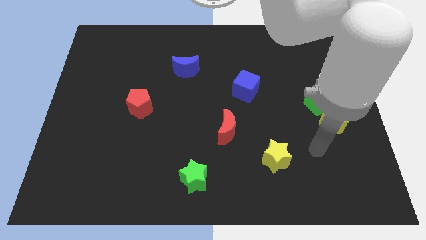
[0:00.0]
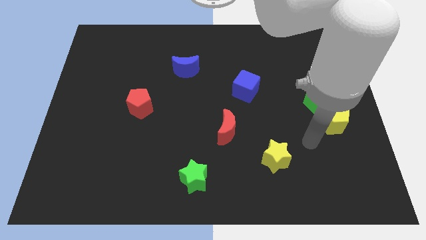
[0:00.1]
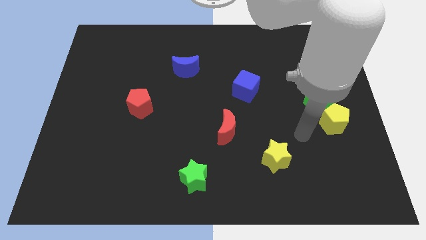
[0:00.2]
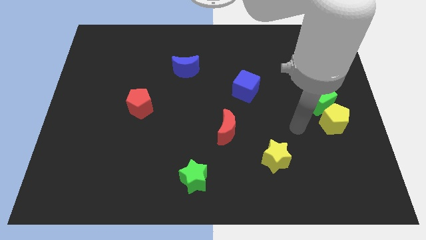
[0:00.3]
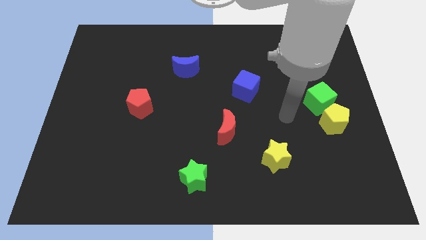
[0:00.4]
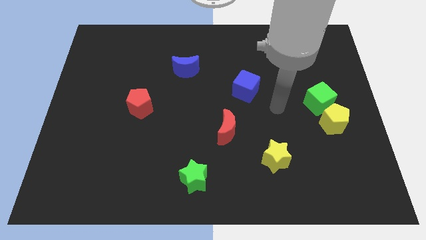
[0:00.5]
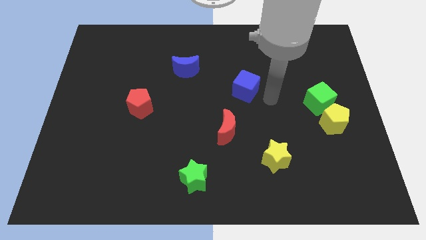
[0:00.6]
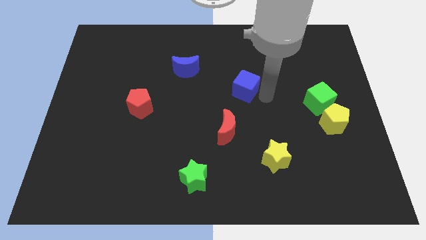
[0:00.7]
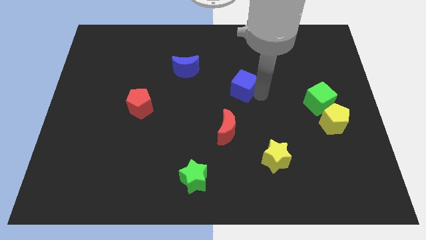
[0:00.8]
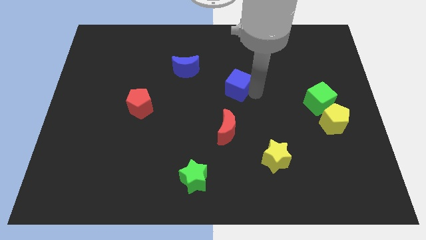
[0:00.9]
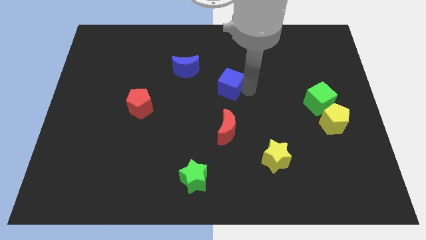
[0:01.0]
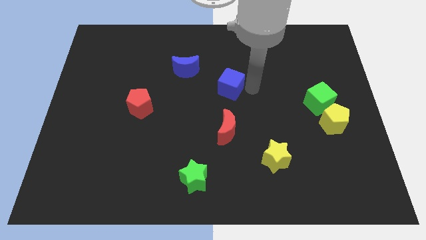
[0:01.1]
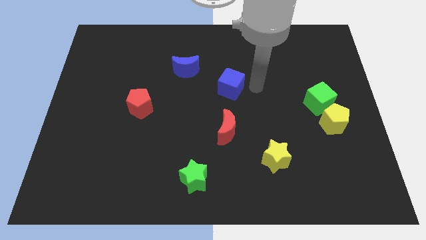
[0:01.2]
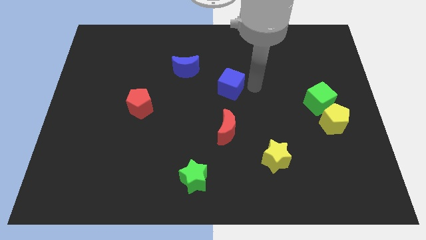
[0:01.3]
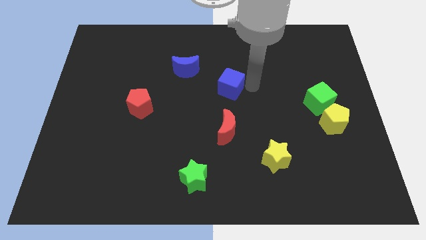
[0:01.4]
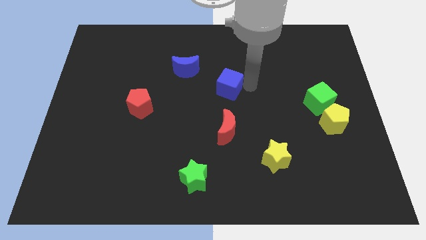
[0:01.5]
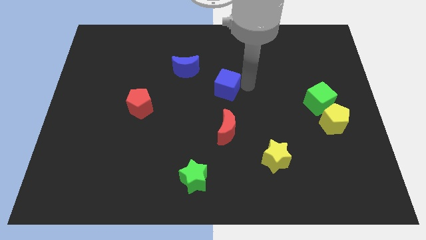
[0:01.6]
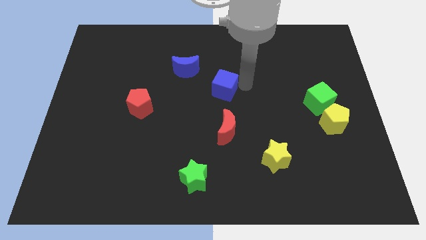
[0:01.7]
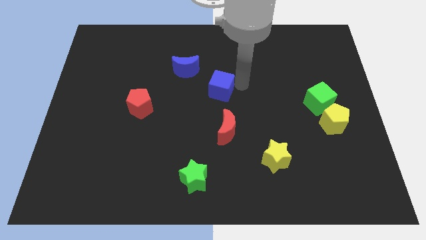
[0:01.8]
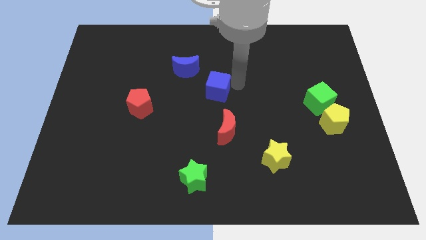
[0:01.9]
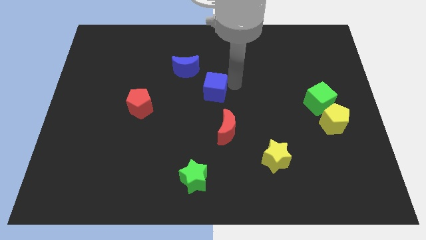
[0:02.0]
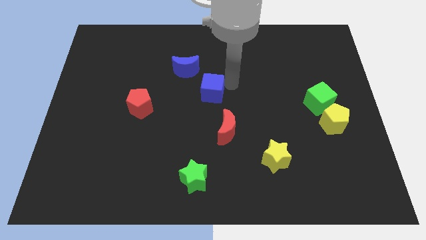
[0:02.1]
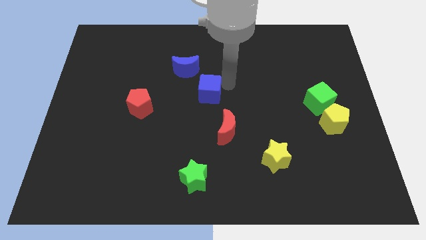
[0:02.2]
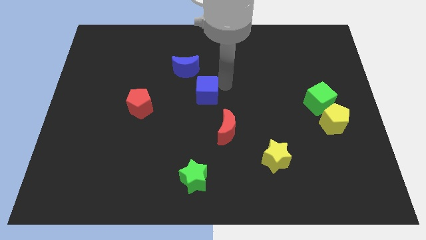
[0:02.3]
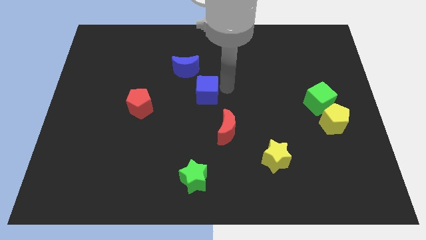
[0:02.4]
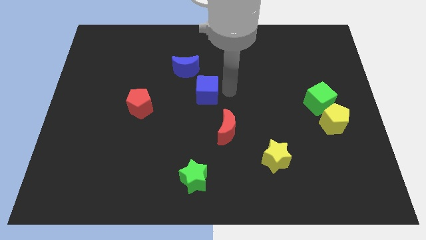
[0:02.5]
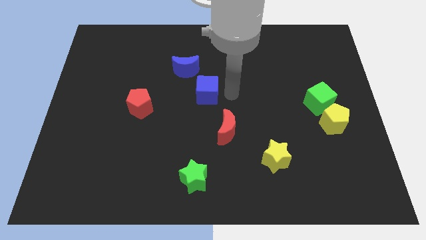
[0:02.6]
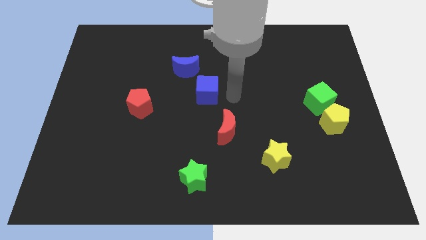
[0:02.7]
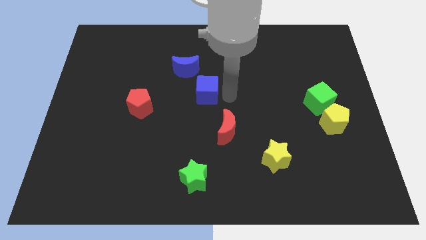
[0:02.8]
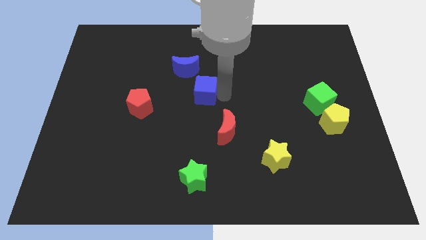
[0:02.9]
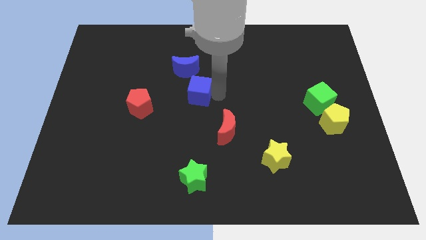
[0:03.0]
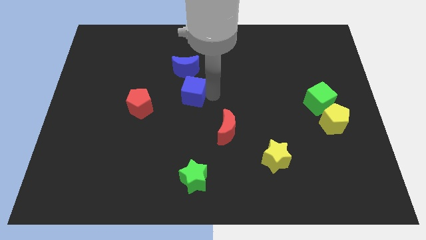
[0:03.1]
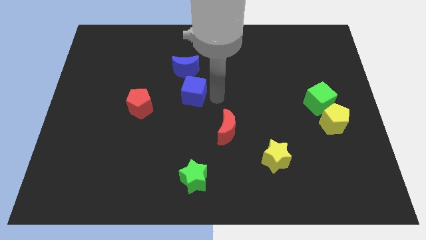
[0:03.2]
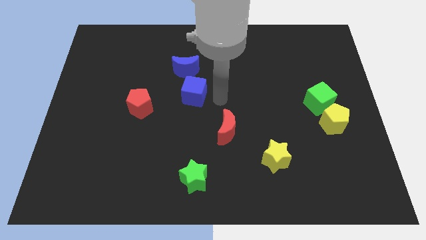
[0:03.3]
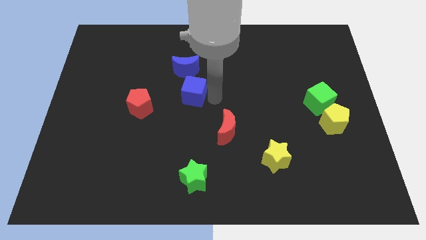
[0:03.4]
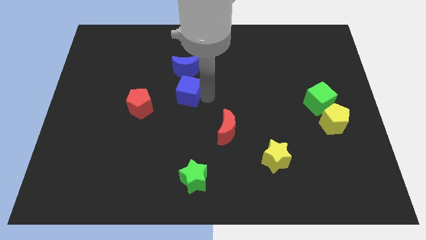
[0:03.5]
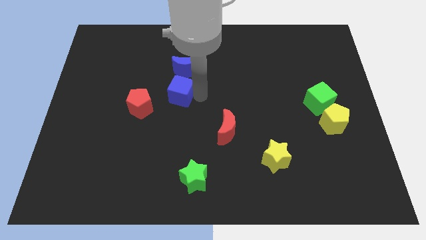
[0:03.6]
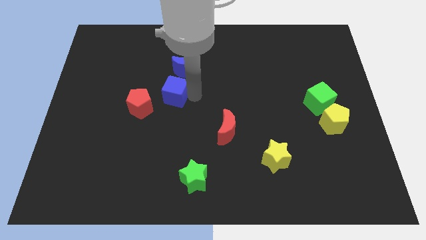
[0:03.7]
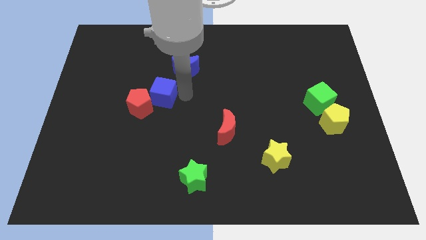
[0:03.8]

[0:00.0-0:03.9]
push the blue cube left

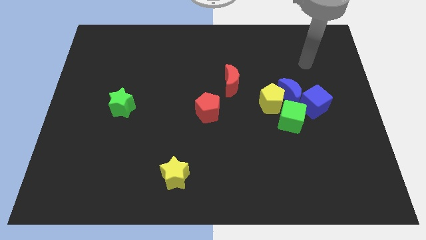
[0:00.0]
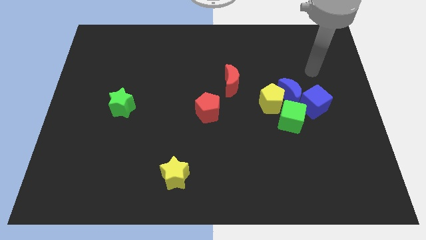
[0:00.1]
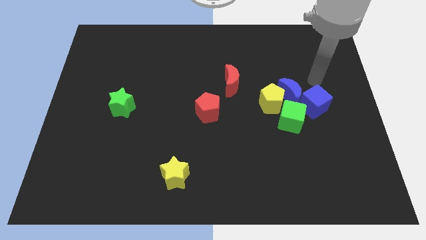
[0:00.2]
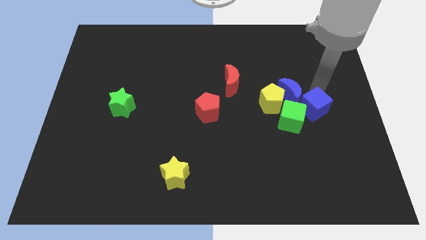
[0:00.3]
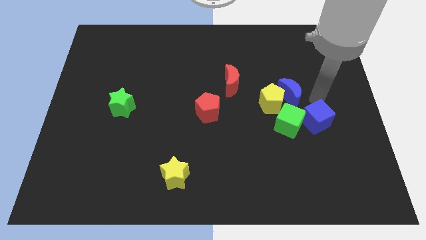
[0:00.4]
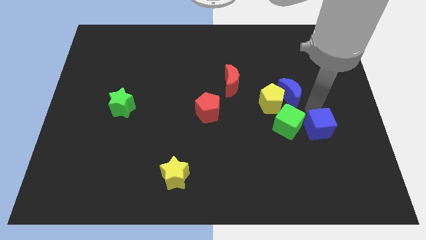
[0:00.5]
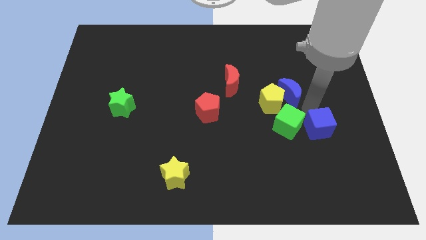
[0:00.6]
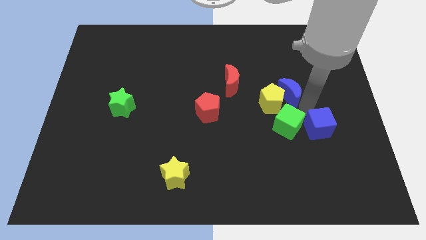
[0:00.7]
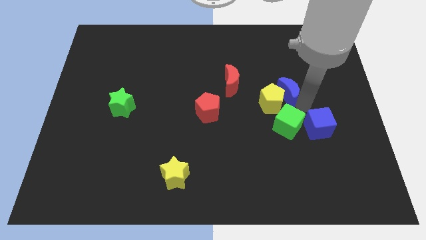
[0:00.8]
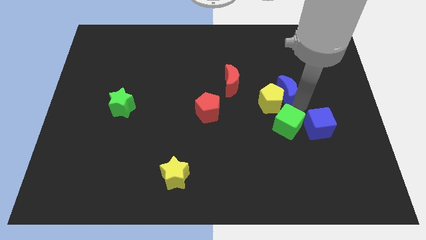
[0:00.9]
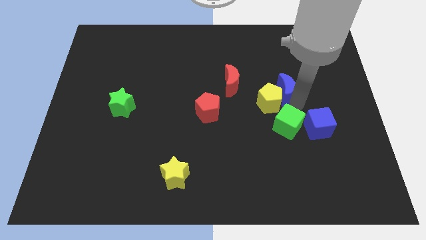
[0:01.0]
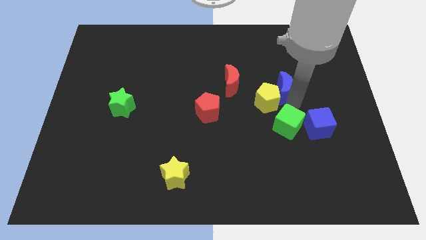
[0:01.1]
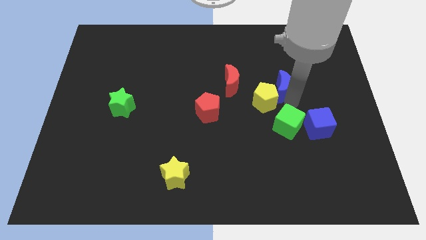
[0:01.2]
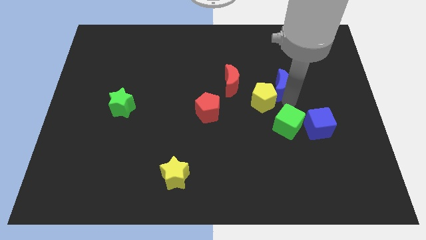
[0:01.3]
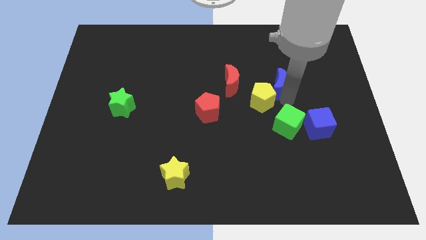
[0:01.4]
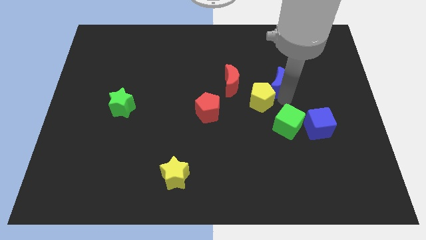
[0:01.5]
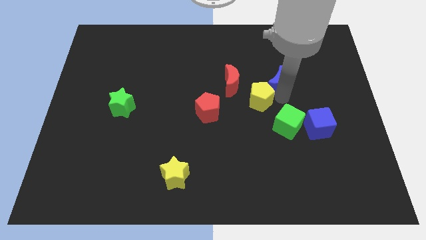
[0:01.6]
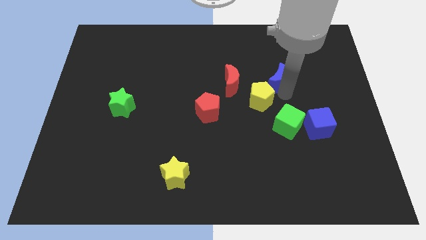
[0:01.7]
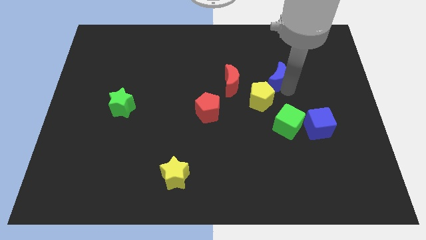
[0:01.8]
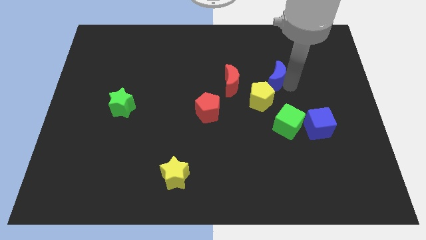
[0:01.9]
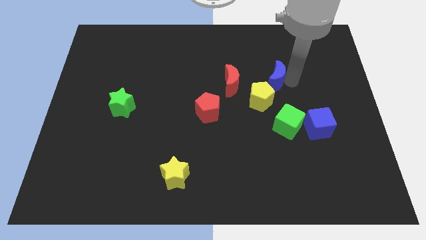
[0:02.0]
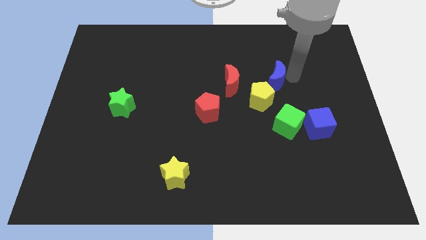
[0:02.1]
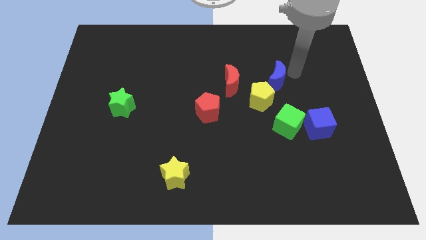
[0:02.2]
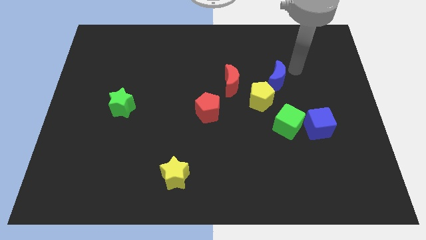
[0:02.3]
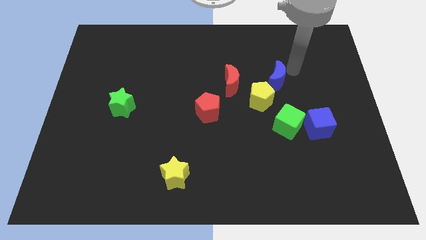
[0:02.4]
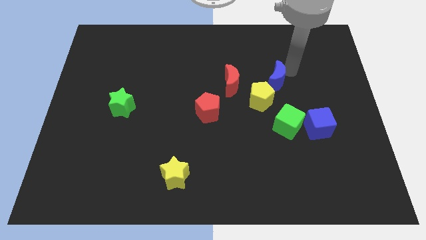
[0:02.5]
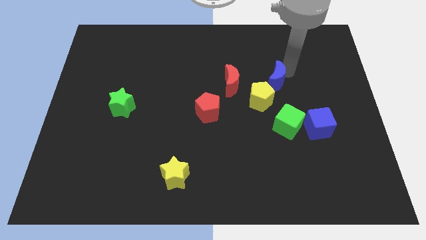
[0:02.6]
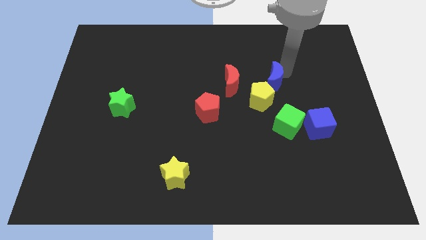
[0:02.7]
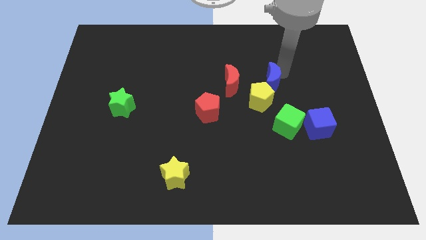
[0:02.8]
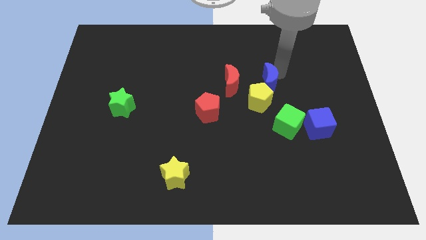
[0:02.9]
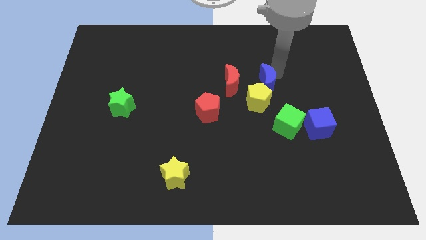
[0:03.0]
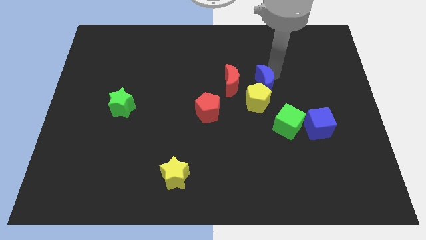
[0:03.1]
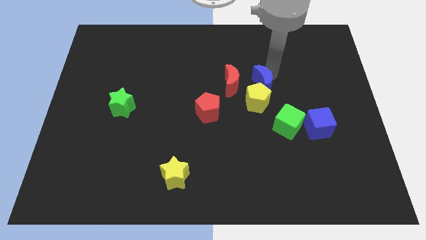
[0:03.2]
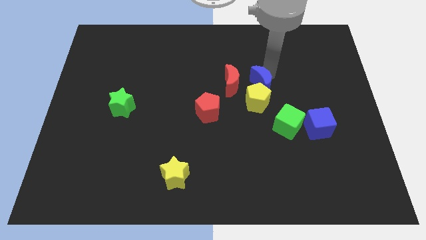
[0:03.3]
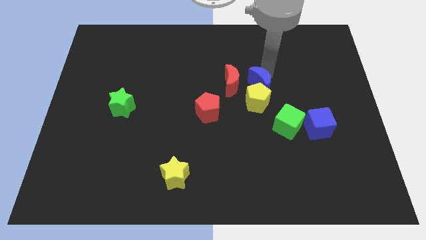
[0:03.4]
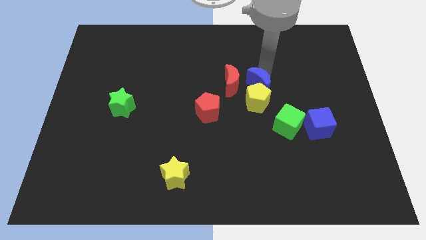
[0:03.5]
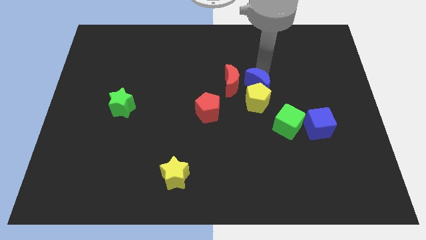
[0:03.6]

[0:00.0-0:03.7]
push the blue moon to the left a little bit

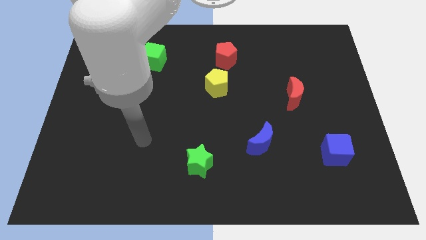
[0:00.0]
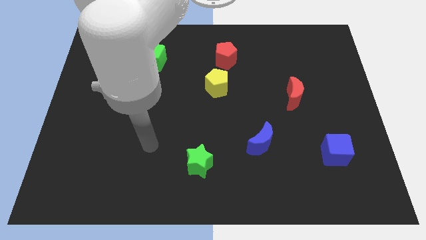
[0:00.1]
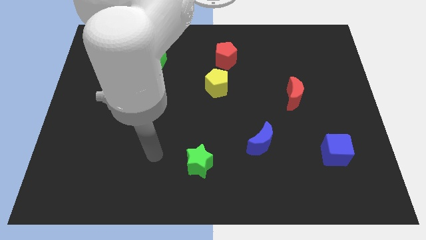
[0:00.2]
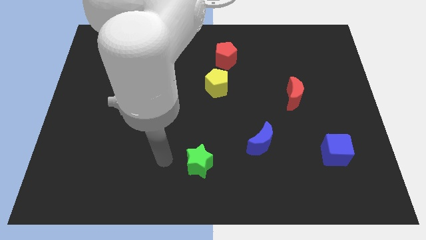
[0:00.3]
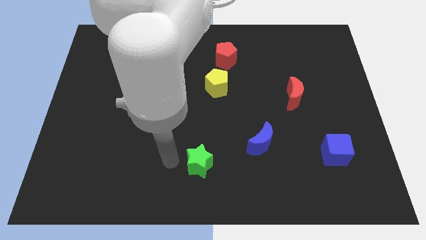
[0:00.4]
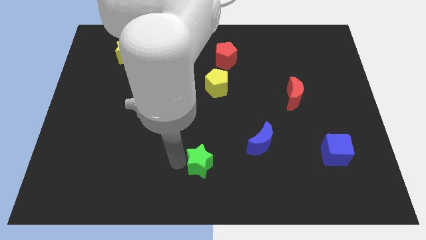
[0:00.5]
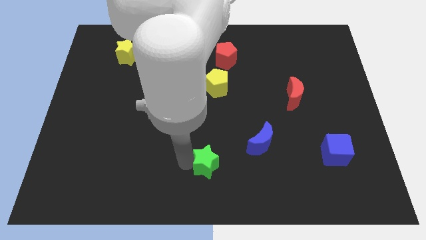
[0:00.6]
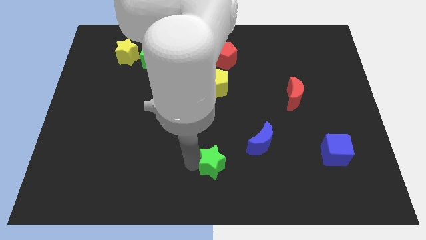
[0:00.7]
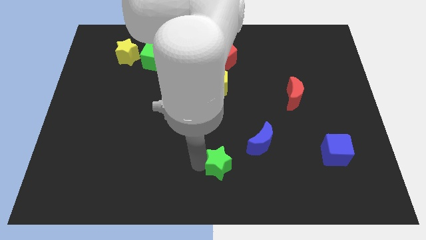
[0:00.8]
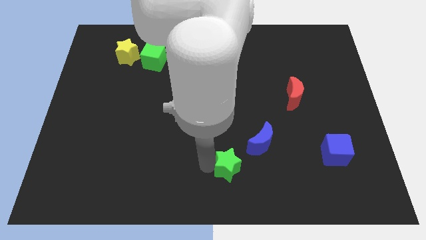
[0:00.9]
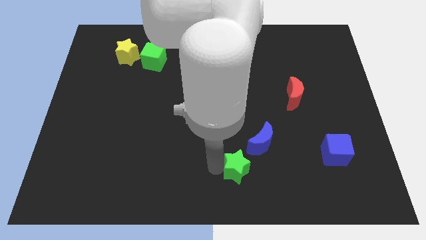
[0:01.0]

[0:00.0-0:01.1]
move the green star slightly right
